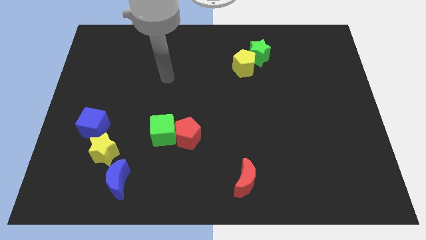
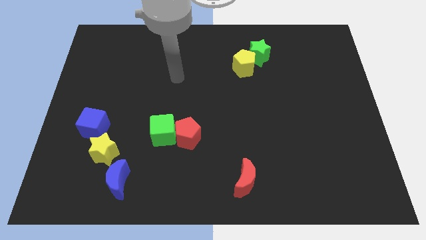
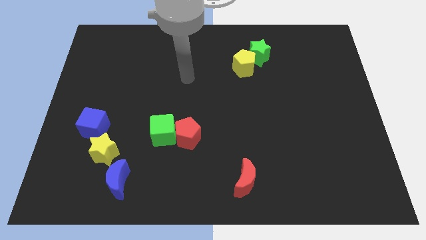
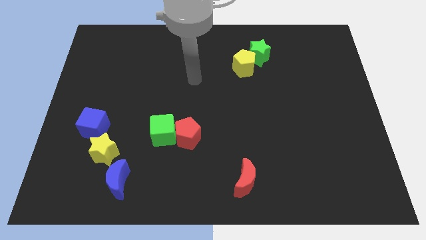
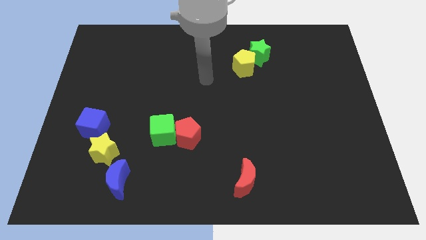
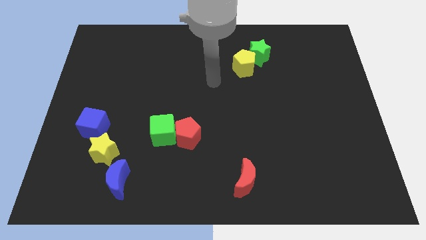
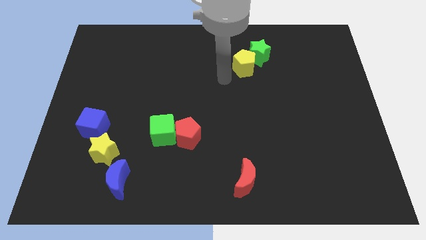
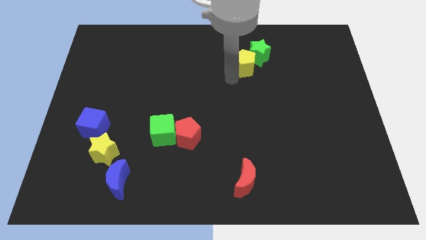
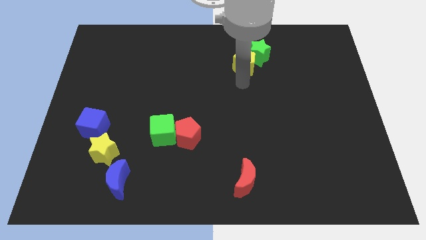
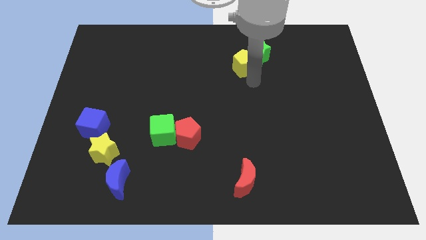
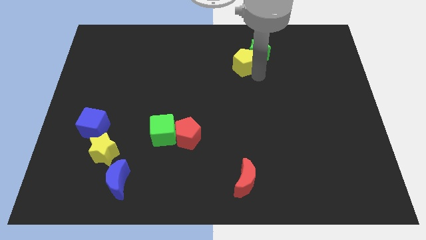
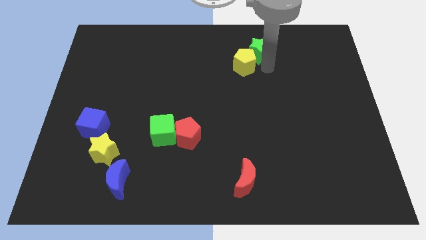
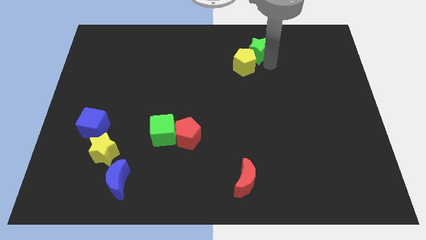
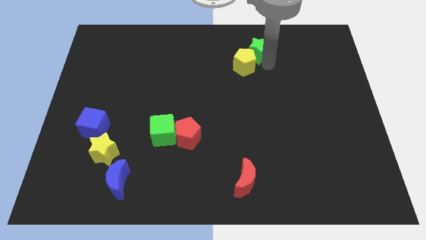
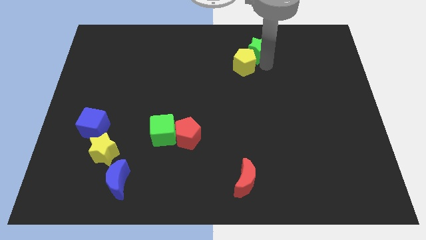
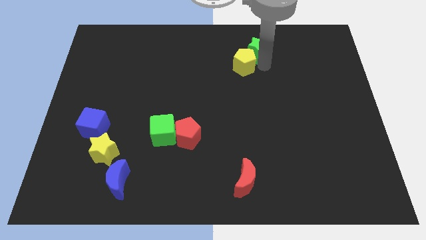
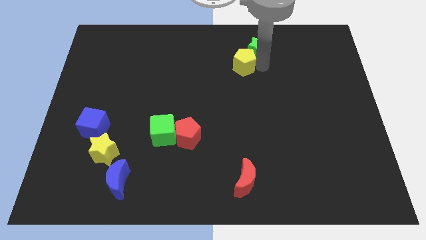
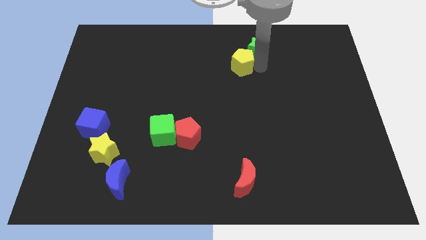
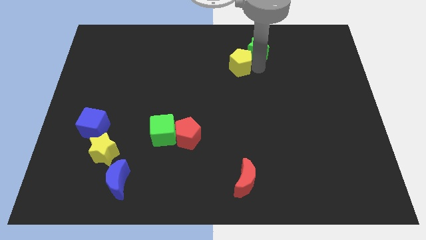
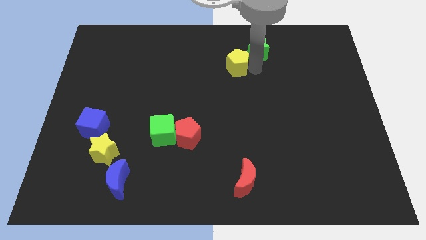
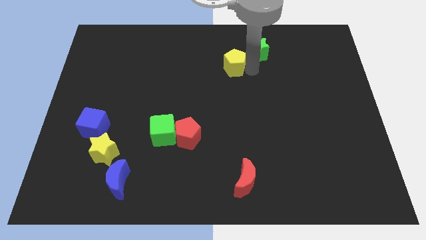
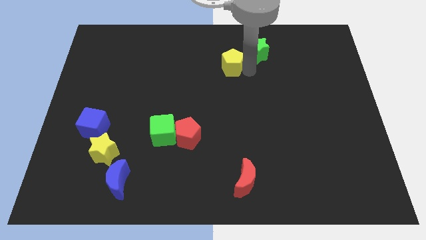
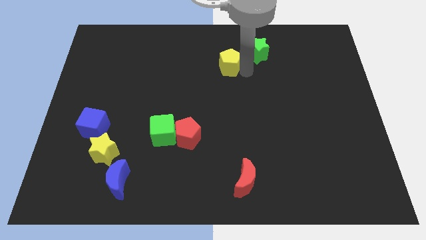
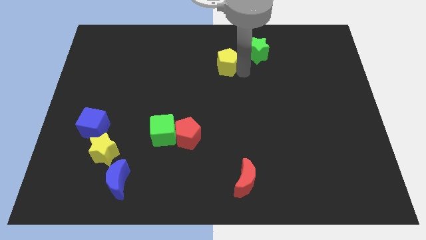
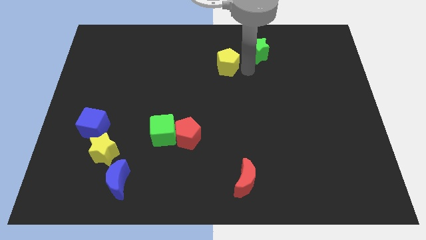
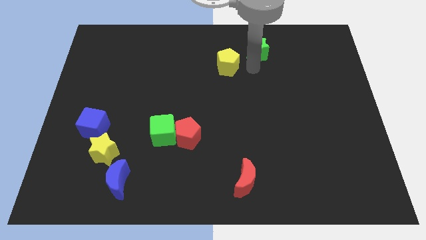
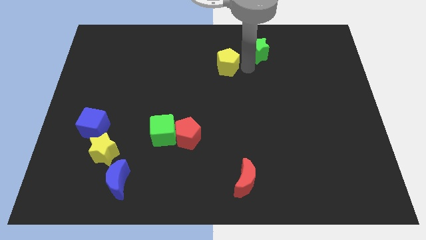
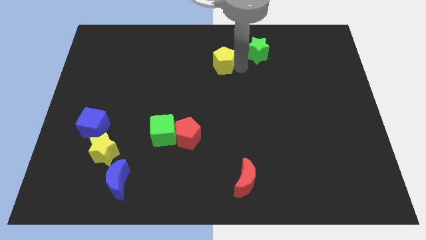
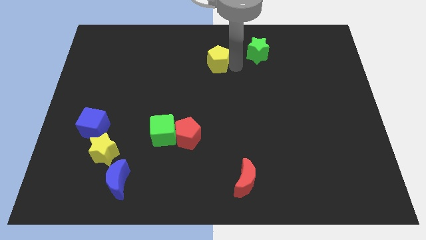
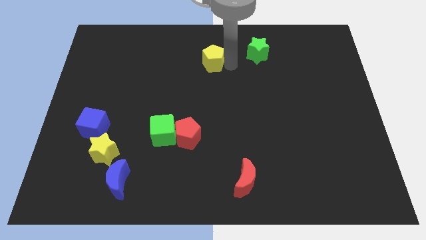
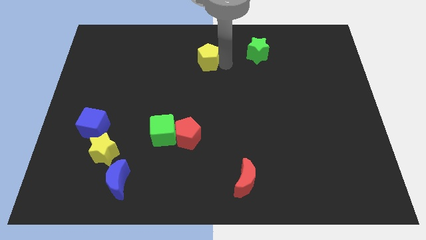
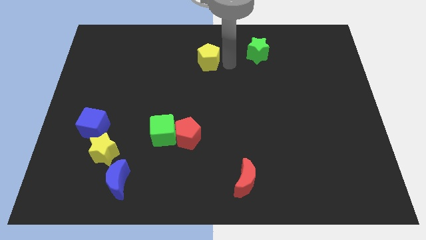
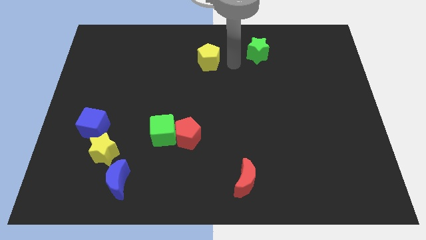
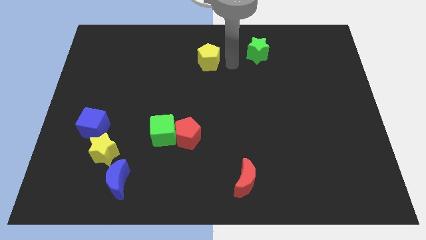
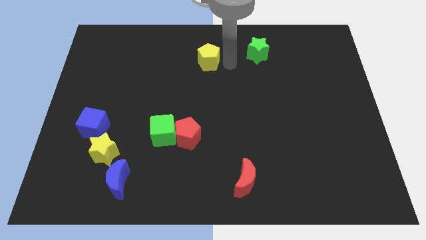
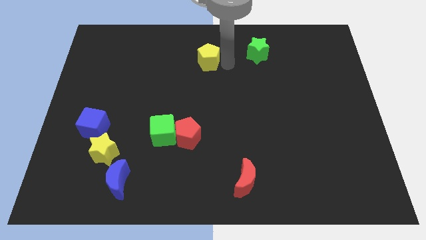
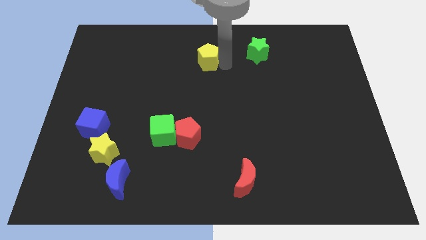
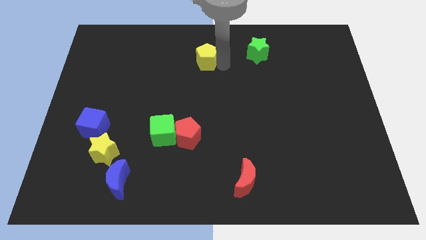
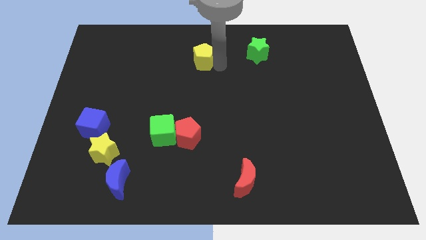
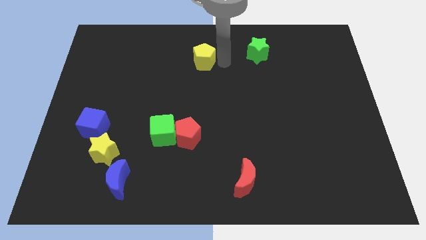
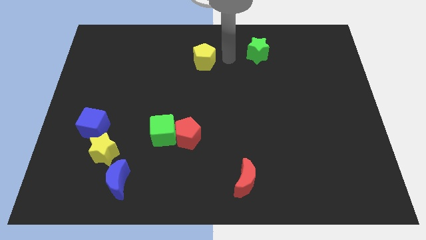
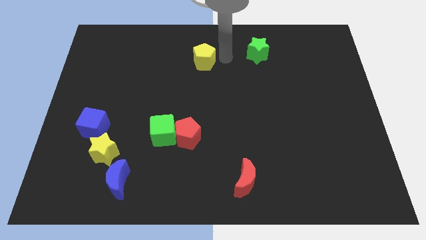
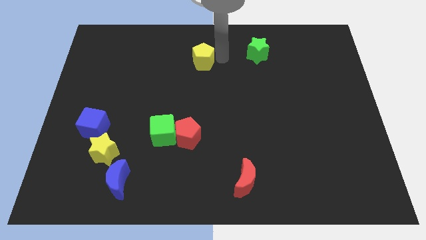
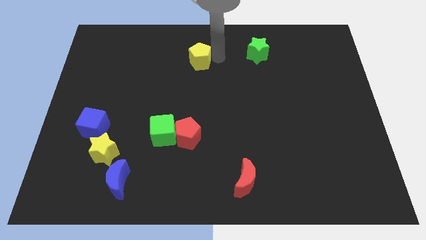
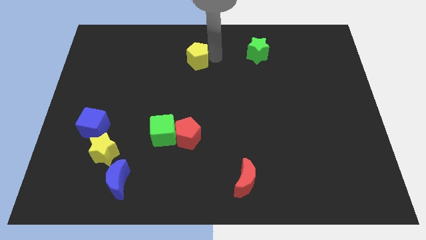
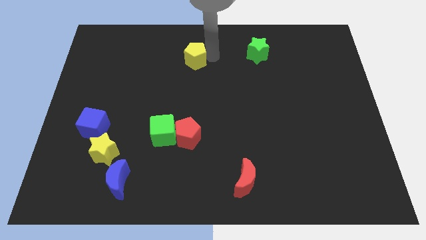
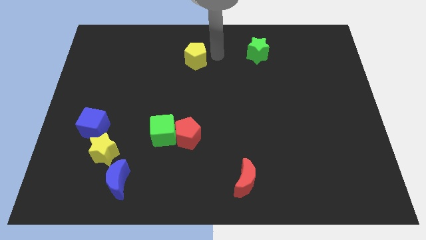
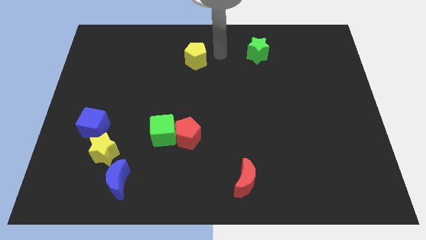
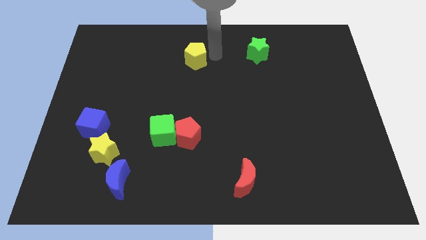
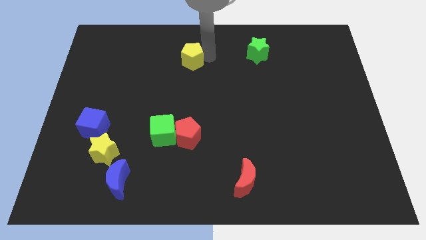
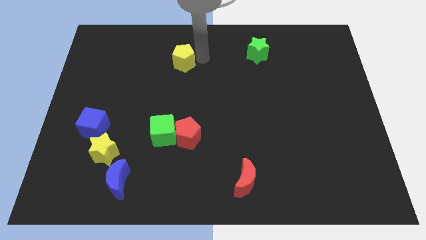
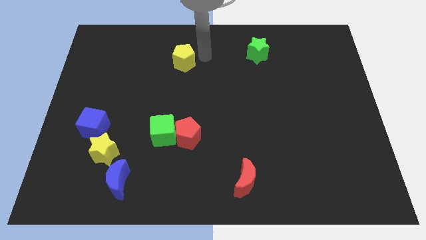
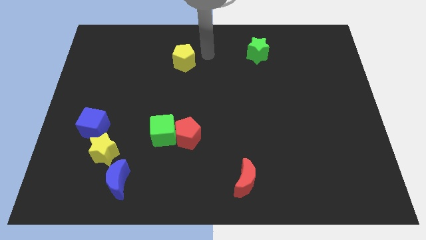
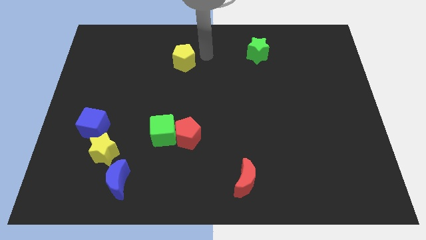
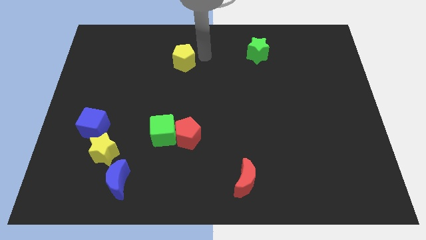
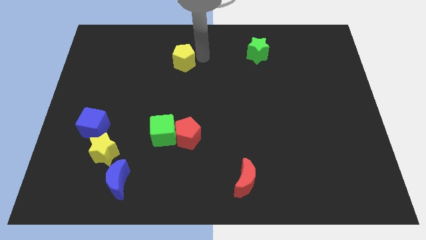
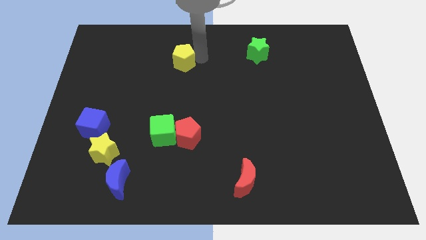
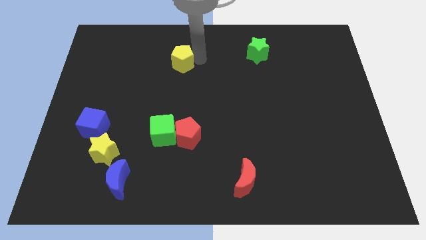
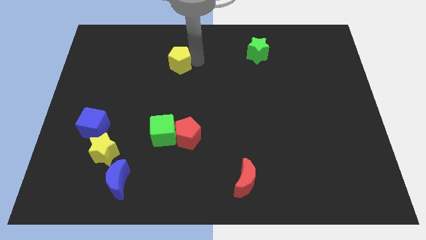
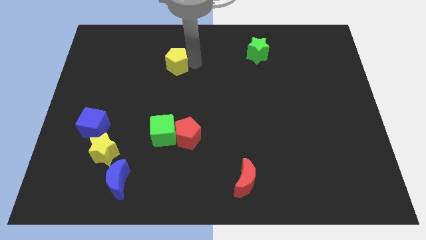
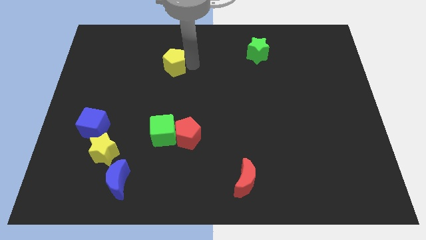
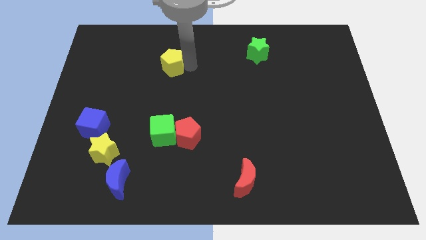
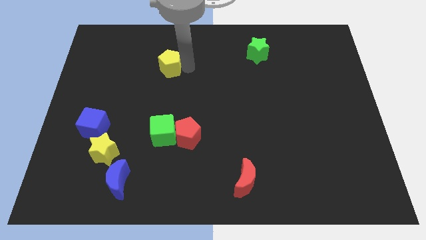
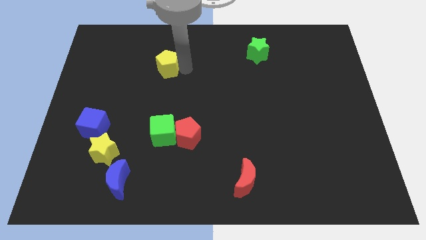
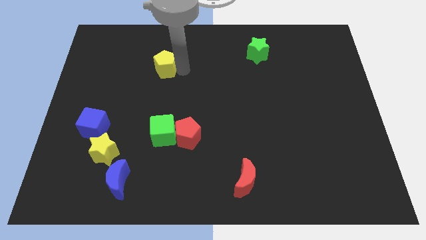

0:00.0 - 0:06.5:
move the yellow pentagon to the left

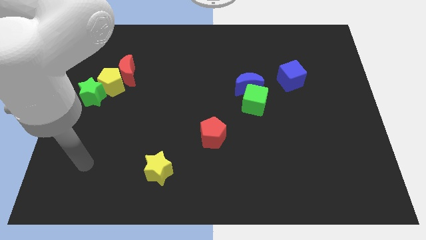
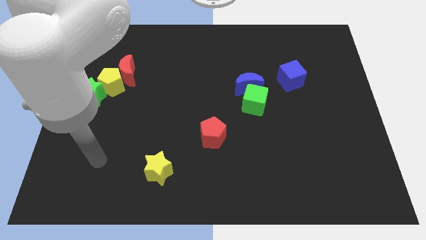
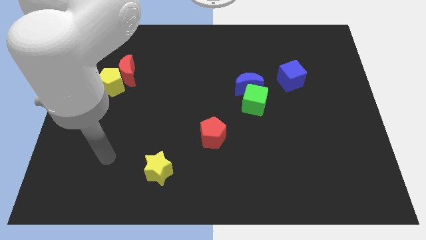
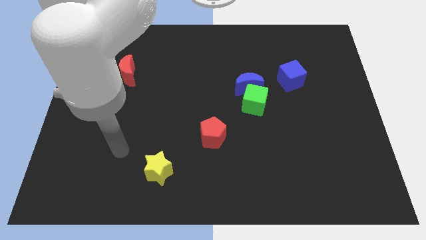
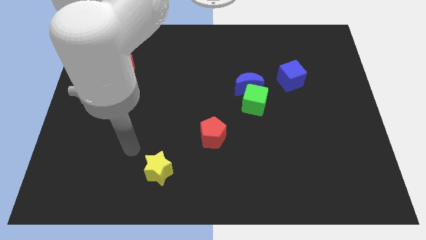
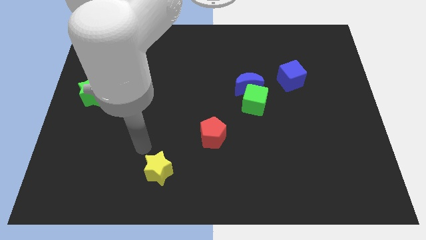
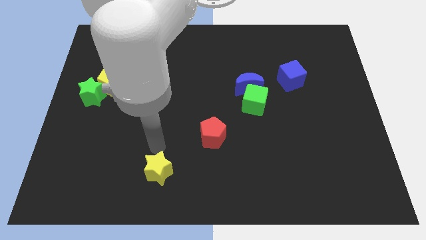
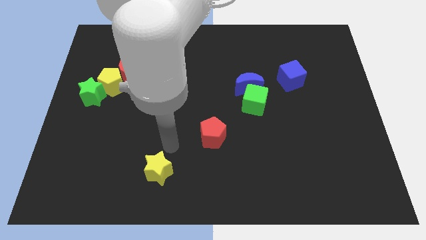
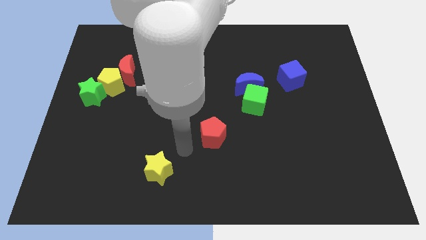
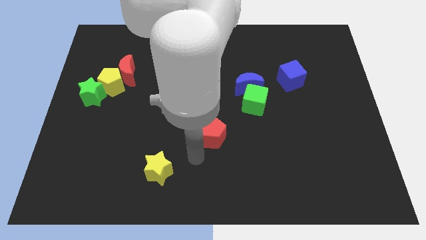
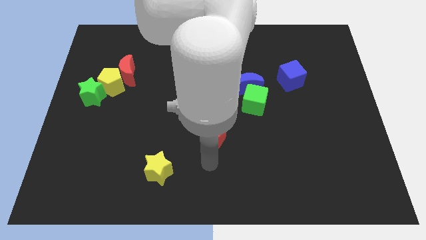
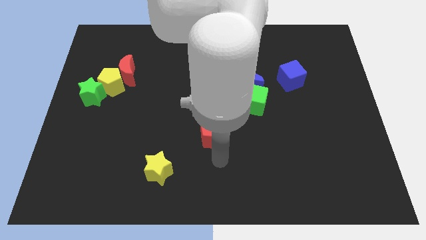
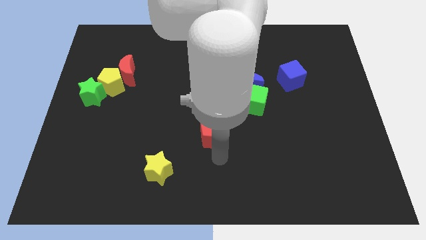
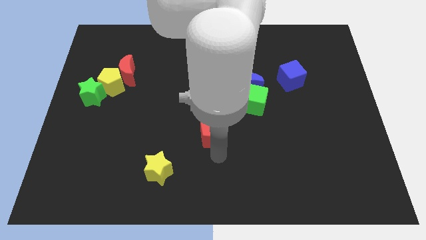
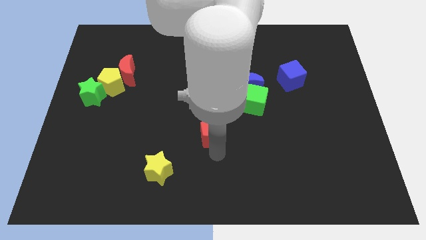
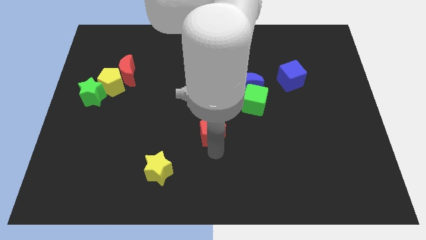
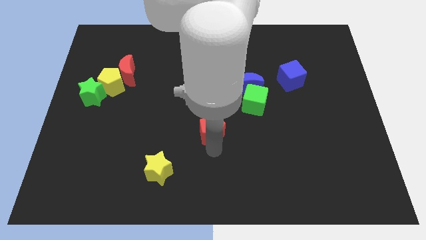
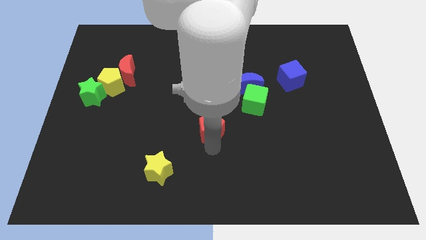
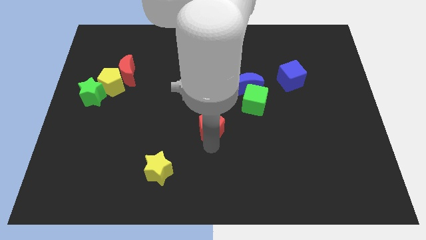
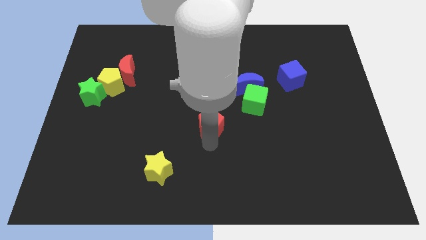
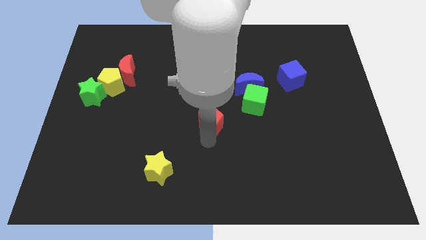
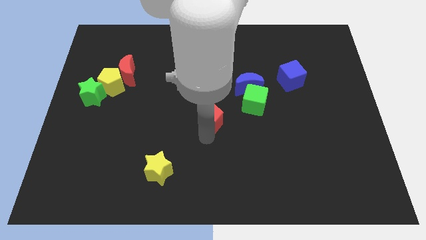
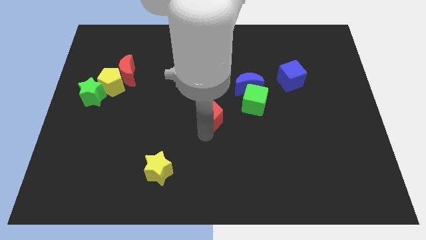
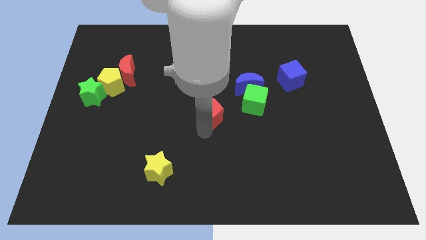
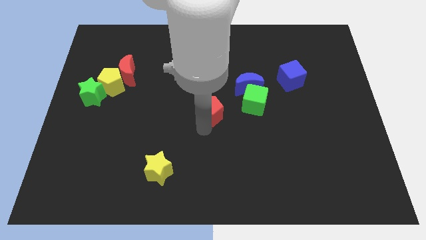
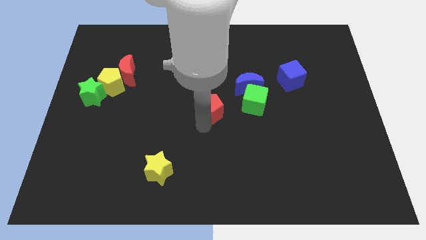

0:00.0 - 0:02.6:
move the red pentagon slightly upwards
